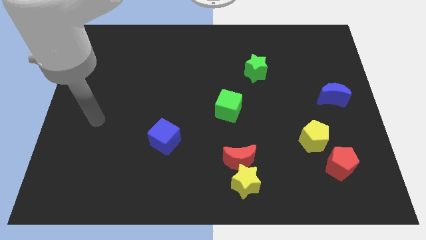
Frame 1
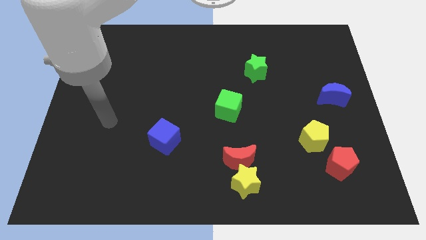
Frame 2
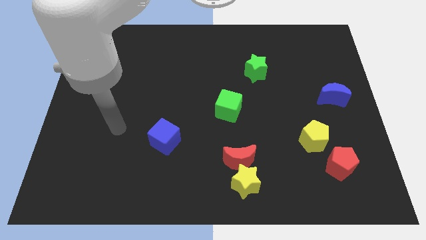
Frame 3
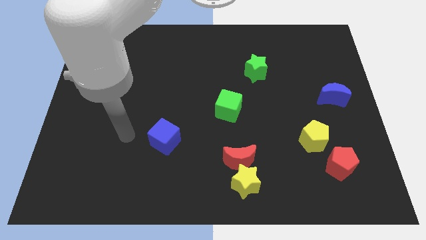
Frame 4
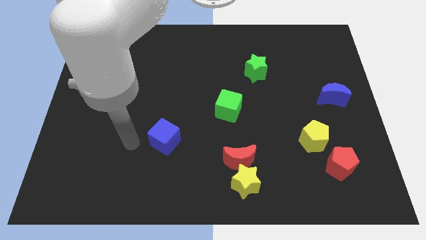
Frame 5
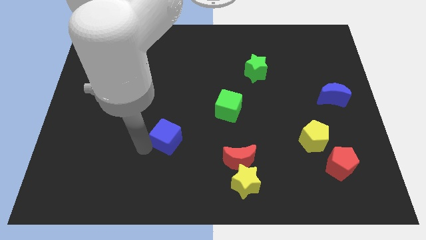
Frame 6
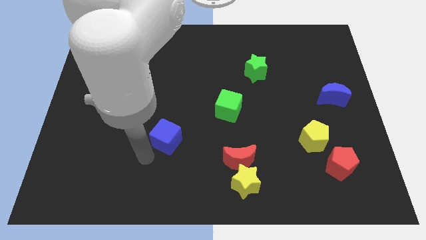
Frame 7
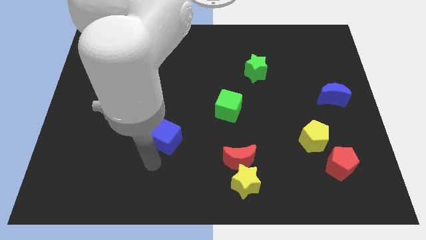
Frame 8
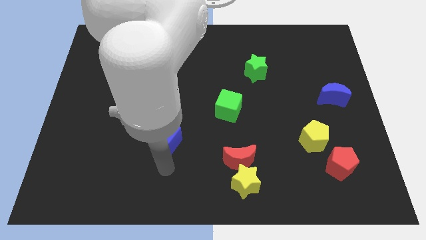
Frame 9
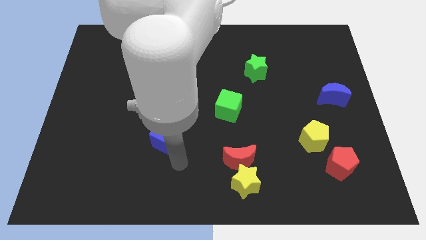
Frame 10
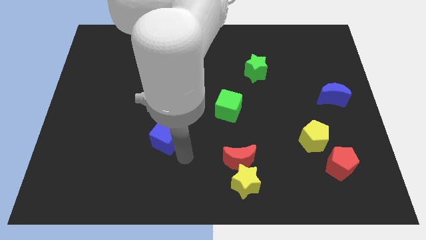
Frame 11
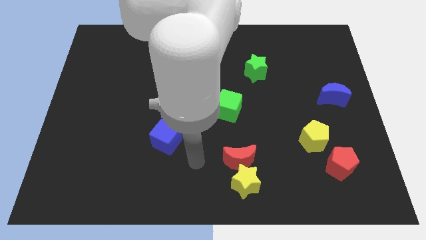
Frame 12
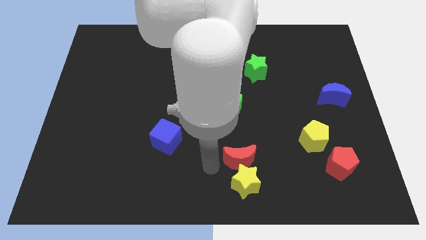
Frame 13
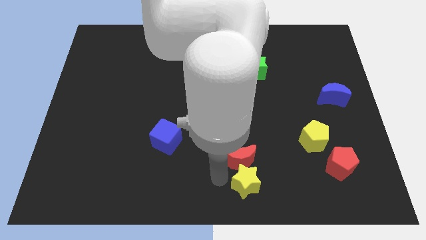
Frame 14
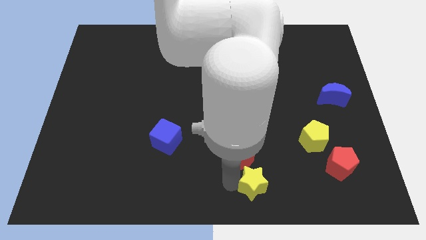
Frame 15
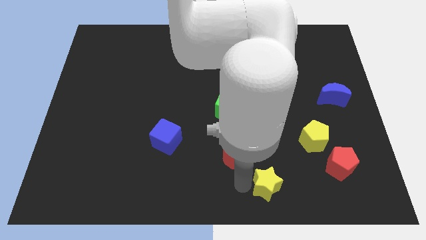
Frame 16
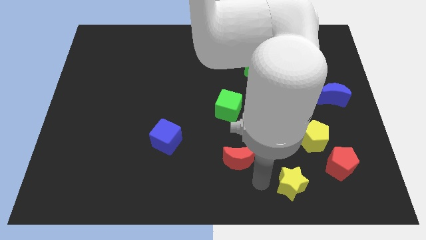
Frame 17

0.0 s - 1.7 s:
separate the red moon from the yellow star

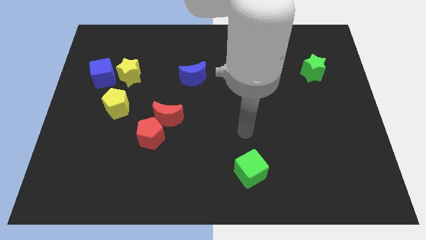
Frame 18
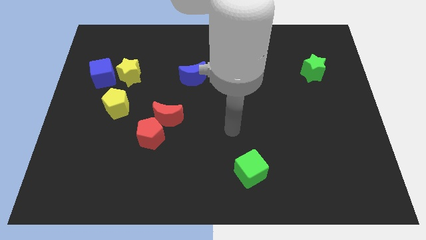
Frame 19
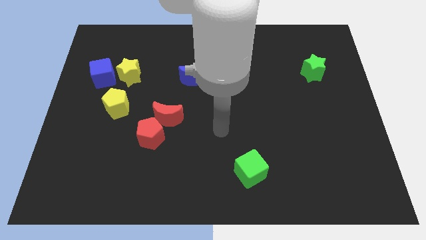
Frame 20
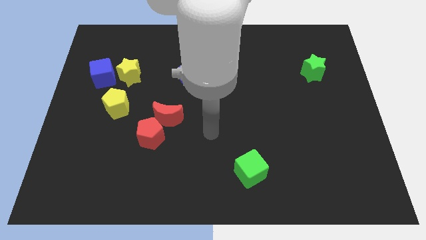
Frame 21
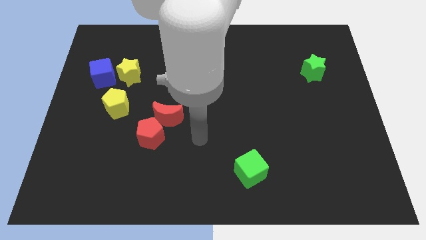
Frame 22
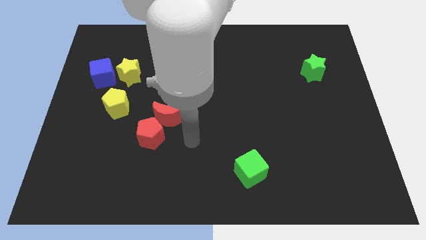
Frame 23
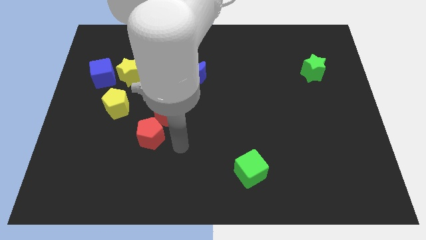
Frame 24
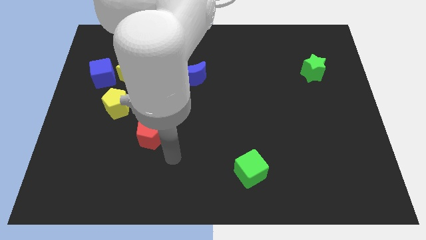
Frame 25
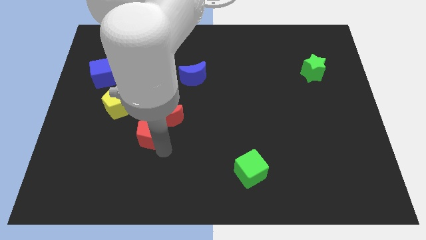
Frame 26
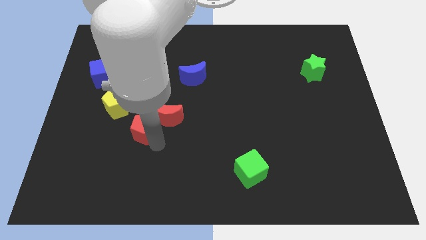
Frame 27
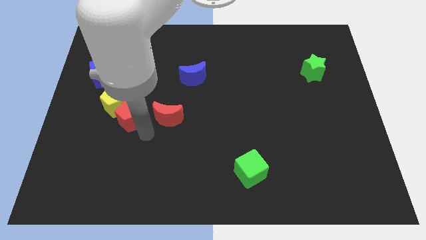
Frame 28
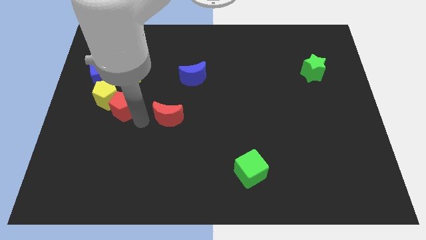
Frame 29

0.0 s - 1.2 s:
separate the red moon from the red pentagon

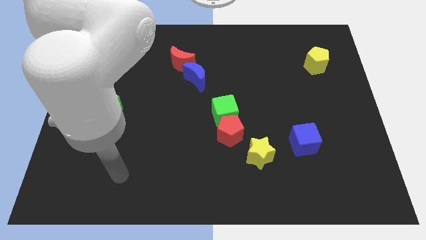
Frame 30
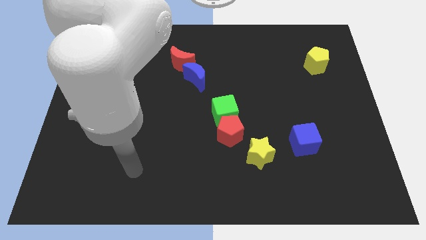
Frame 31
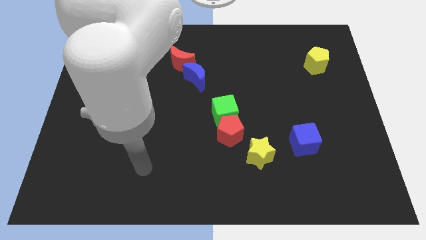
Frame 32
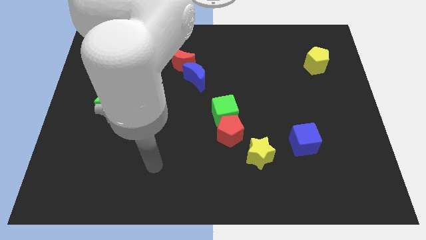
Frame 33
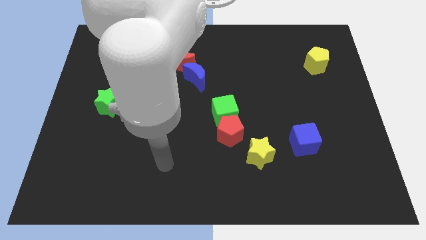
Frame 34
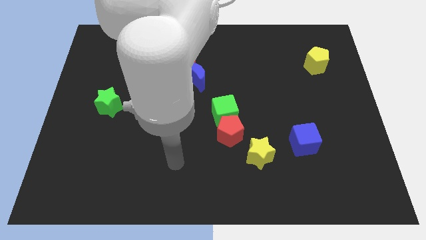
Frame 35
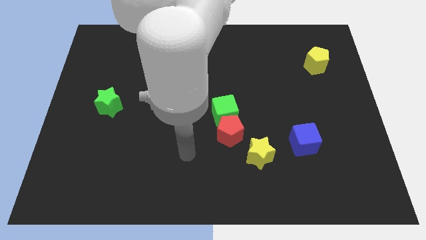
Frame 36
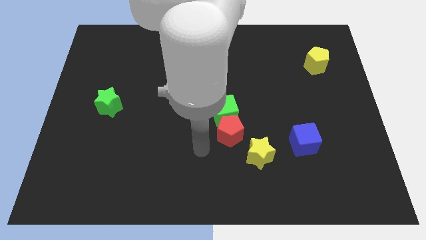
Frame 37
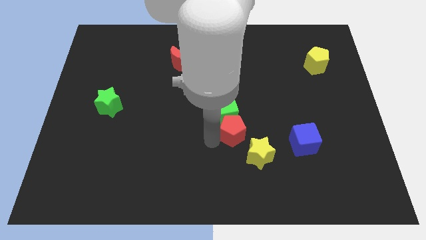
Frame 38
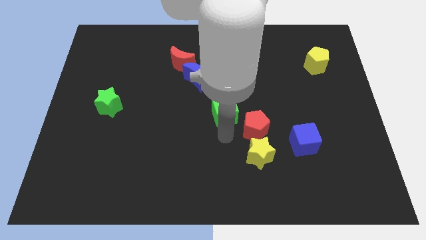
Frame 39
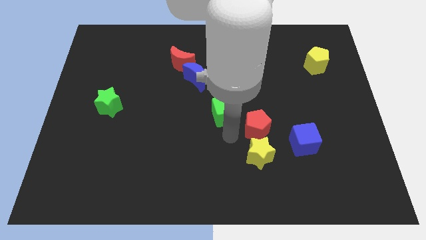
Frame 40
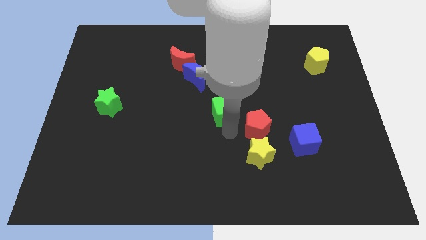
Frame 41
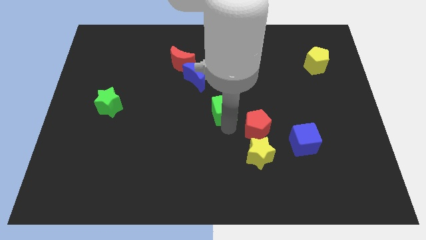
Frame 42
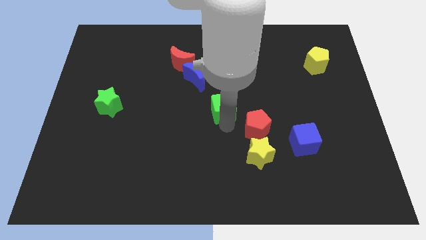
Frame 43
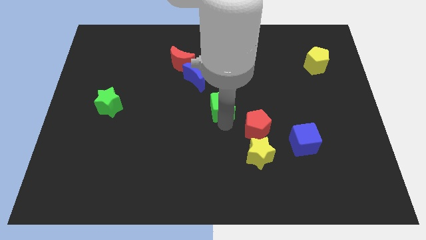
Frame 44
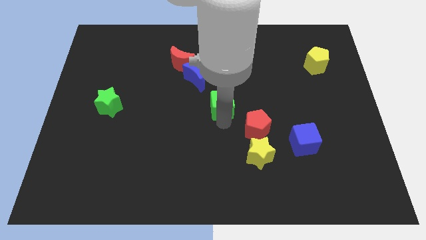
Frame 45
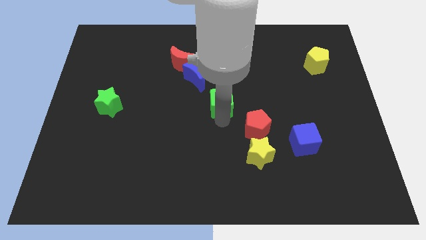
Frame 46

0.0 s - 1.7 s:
pull the green cube apart from the red pentagon

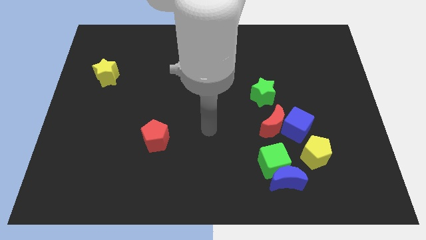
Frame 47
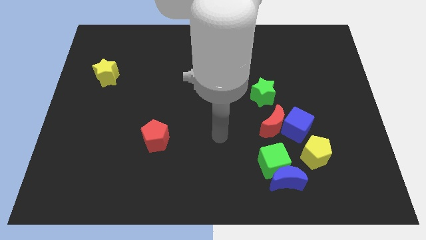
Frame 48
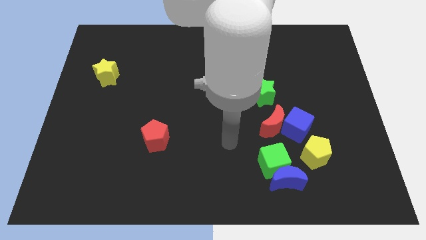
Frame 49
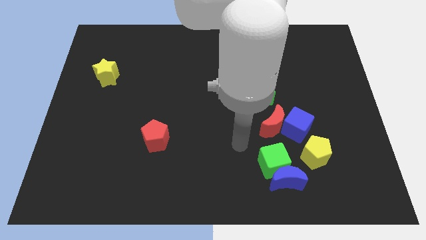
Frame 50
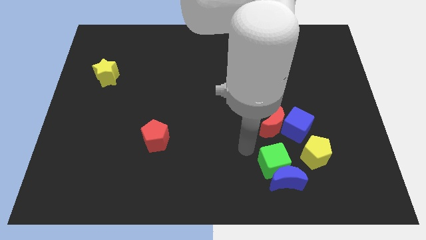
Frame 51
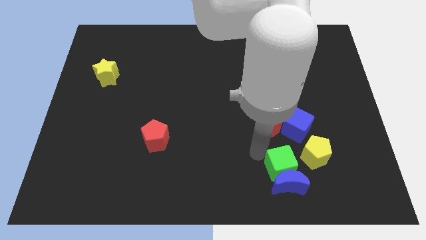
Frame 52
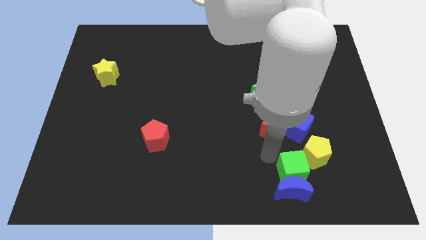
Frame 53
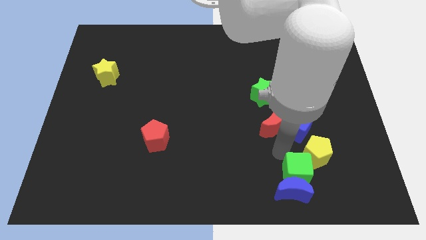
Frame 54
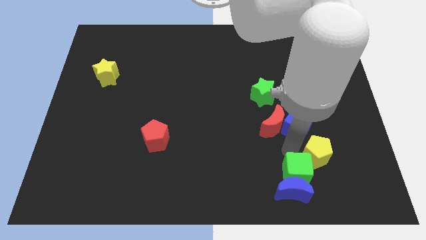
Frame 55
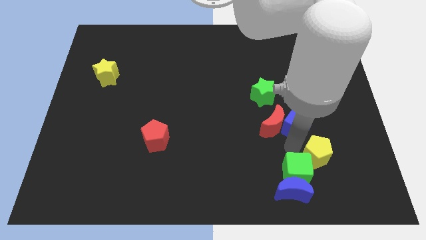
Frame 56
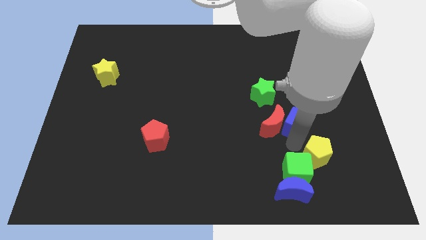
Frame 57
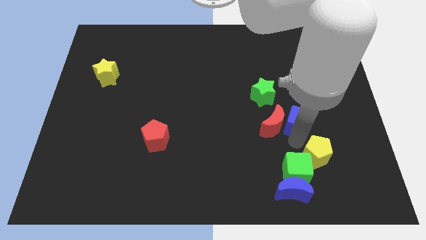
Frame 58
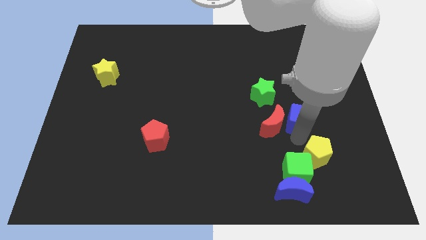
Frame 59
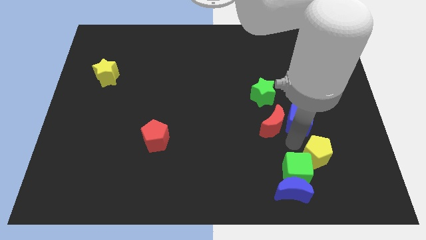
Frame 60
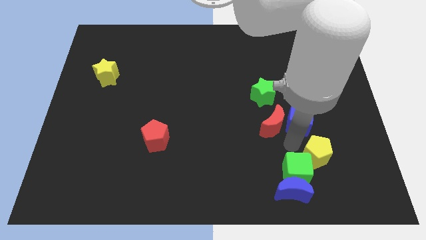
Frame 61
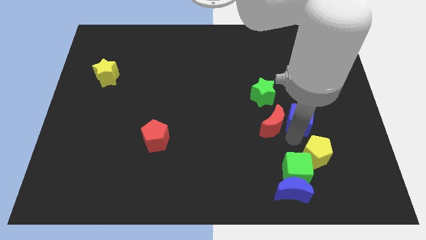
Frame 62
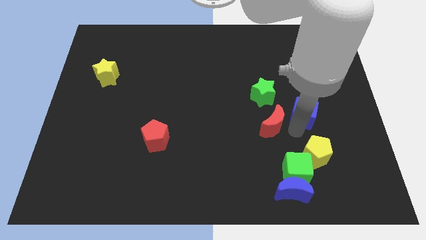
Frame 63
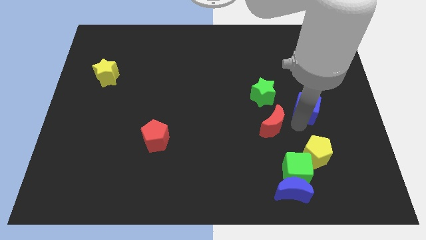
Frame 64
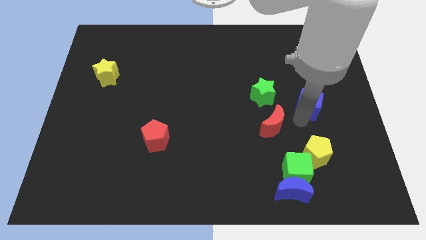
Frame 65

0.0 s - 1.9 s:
move the blue cube away from the red moon and yellow pentagon

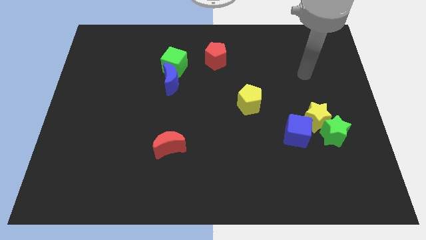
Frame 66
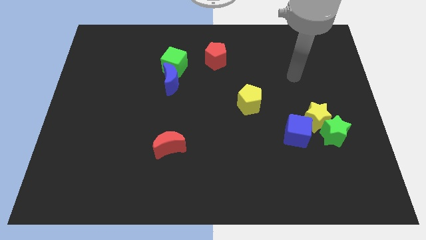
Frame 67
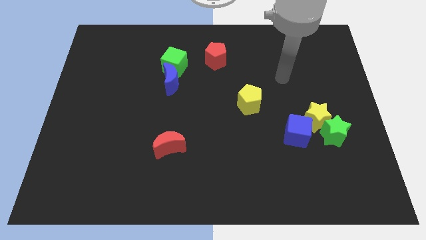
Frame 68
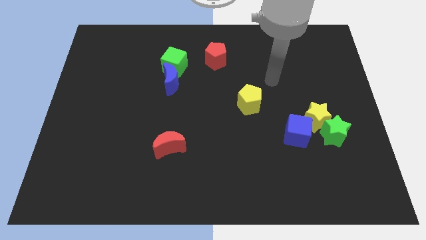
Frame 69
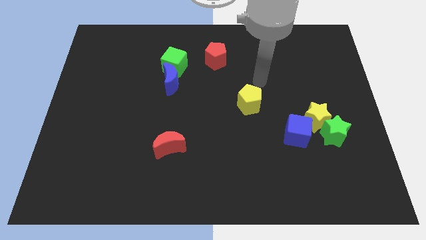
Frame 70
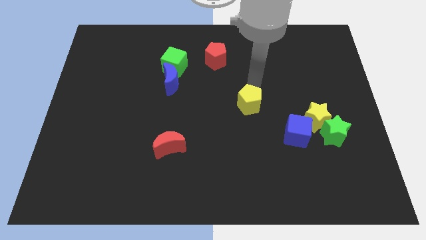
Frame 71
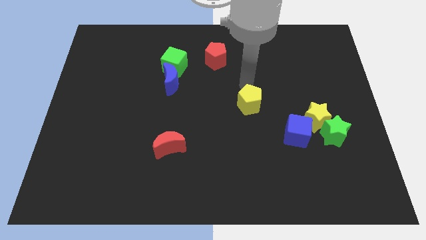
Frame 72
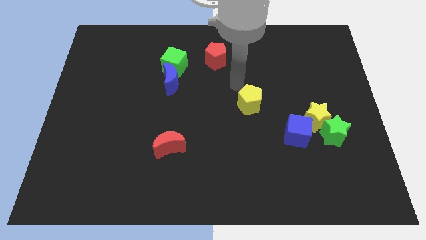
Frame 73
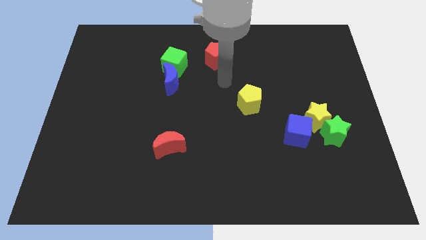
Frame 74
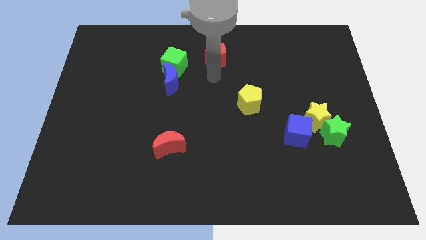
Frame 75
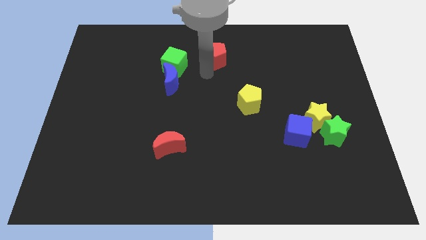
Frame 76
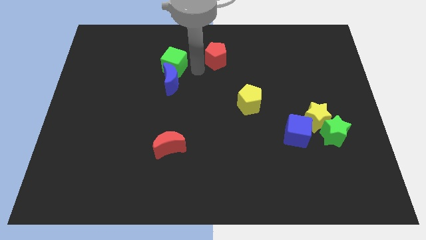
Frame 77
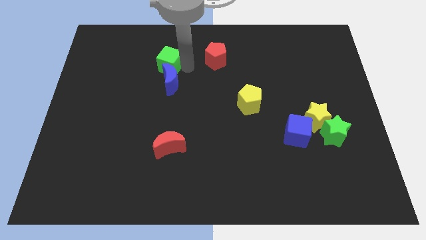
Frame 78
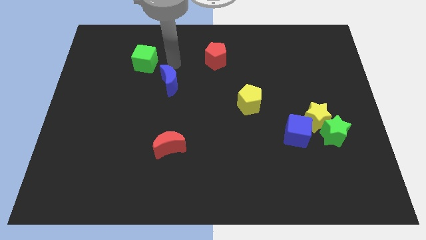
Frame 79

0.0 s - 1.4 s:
separate the blue moon from the green cube

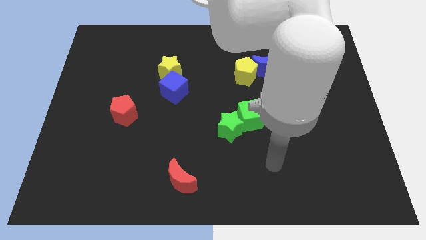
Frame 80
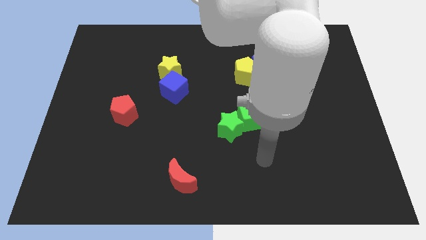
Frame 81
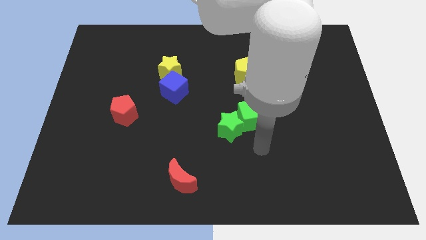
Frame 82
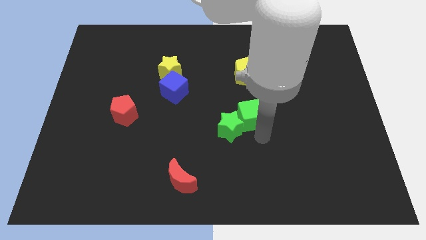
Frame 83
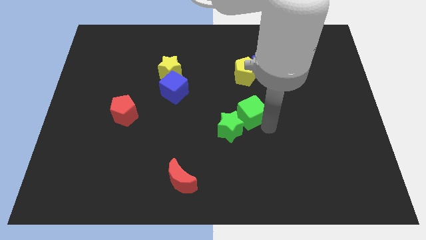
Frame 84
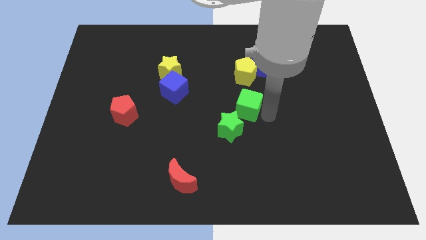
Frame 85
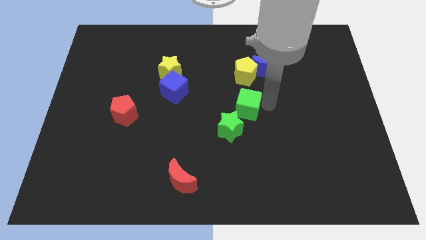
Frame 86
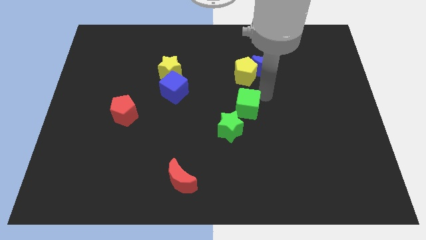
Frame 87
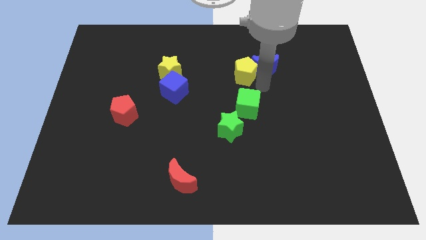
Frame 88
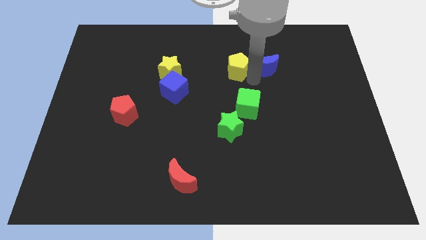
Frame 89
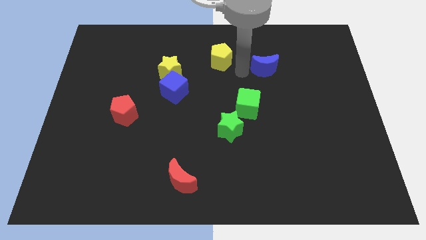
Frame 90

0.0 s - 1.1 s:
separate the blue moon from the yellow pentagon

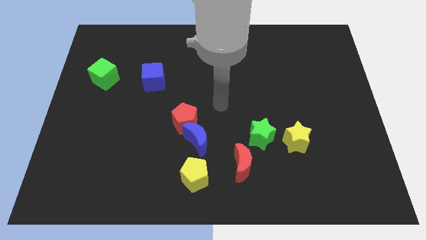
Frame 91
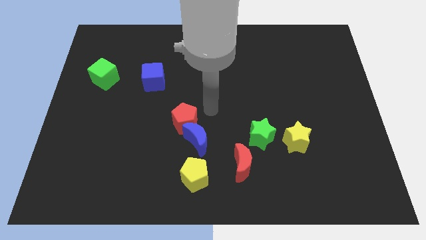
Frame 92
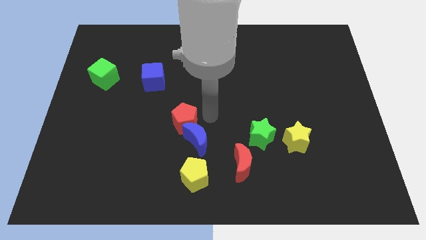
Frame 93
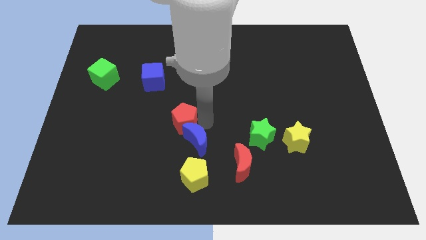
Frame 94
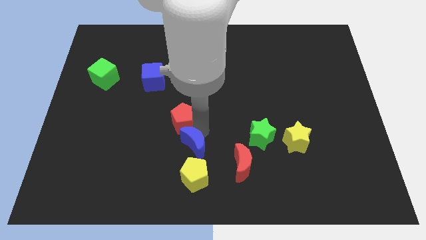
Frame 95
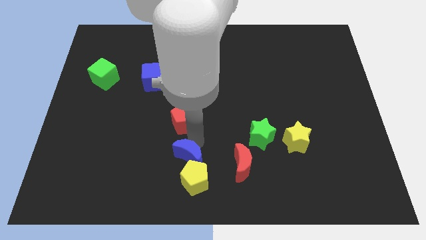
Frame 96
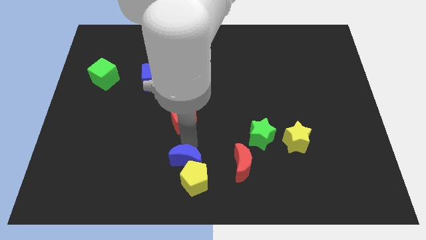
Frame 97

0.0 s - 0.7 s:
pull the red pentagon apart from the blue moon
